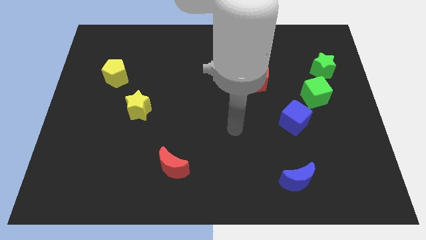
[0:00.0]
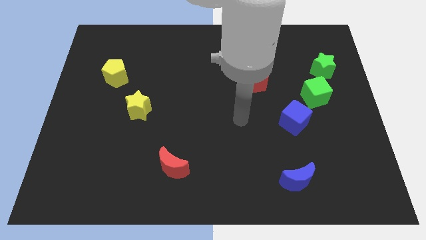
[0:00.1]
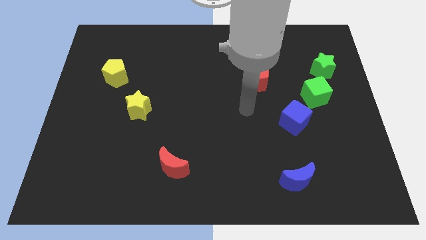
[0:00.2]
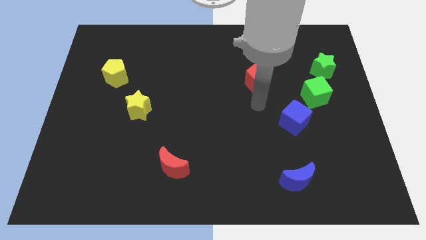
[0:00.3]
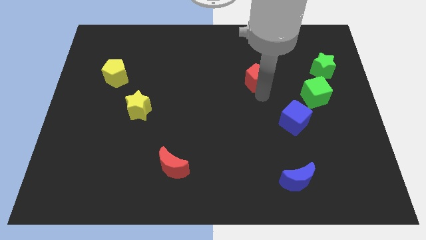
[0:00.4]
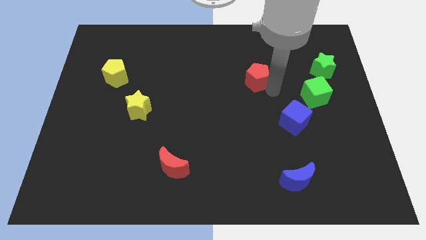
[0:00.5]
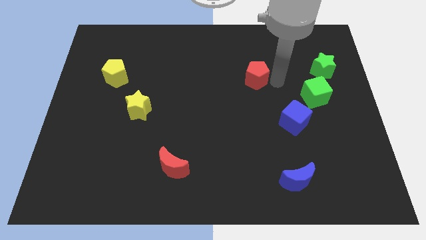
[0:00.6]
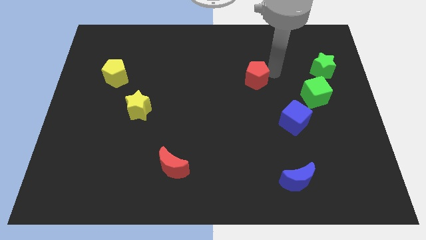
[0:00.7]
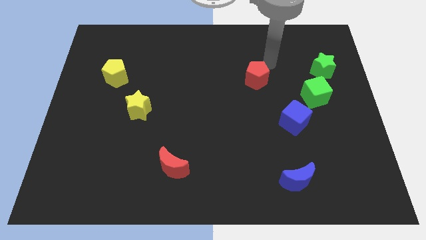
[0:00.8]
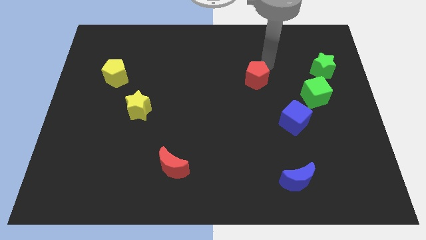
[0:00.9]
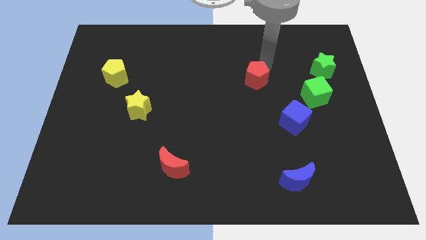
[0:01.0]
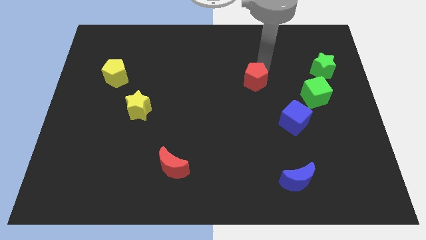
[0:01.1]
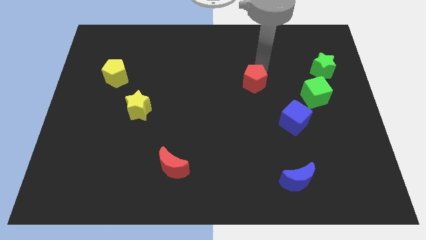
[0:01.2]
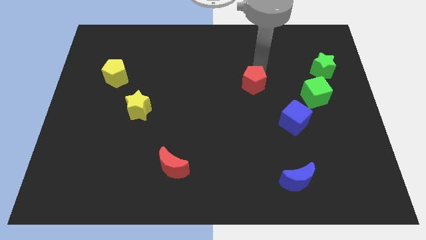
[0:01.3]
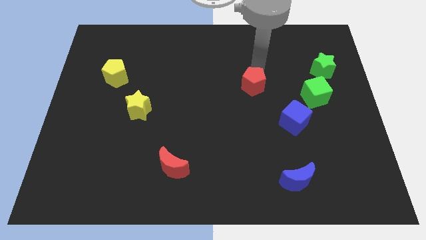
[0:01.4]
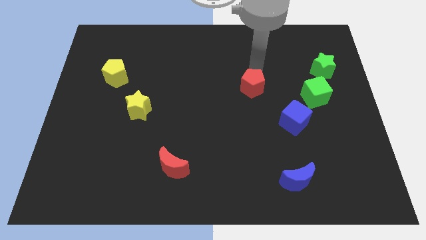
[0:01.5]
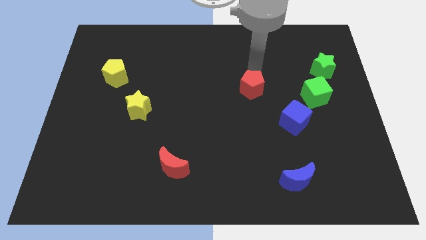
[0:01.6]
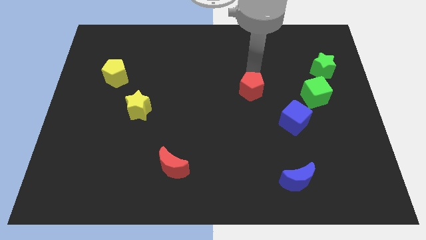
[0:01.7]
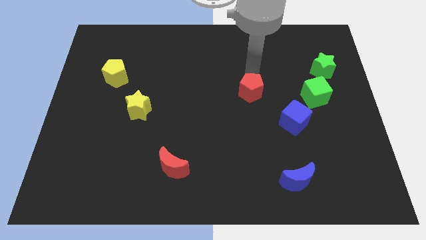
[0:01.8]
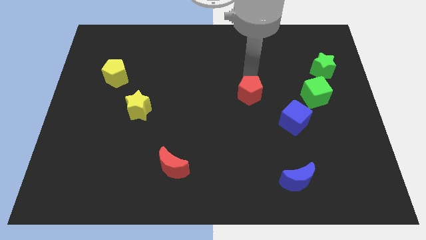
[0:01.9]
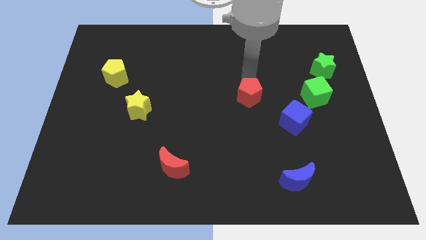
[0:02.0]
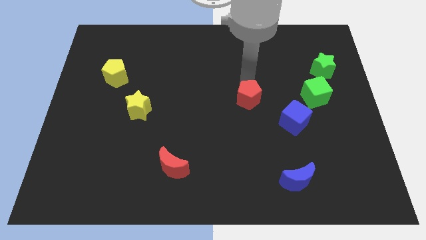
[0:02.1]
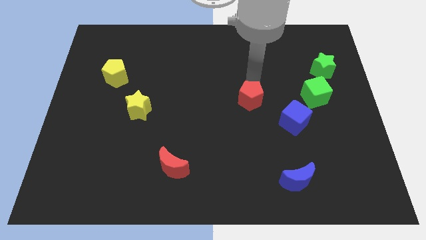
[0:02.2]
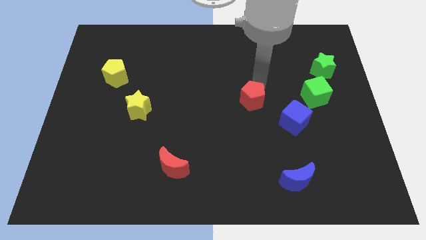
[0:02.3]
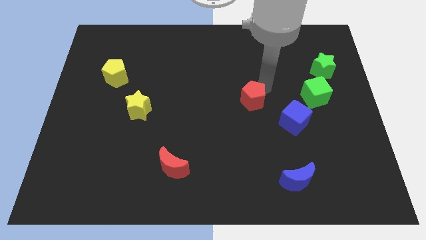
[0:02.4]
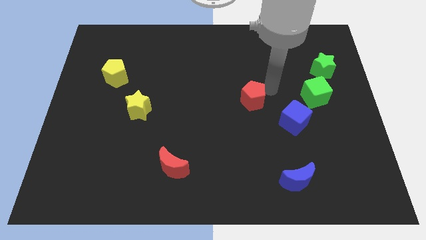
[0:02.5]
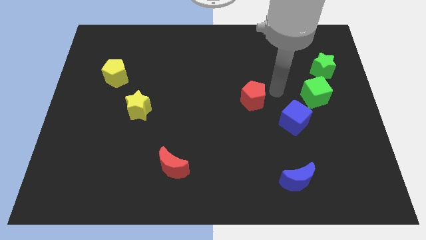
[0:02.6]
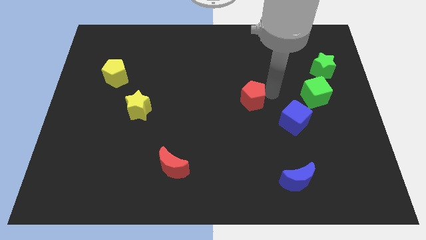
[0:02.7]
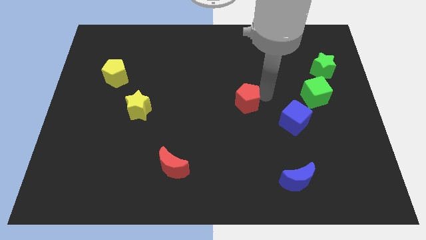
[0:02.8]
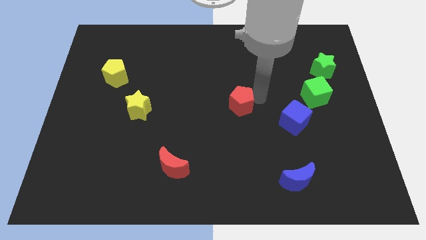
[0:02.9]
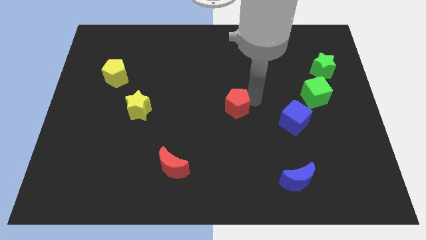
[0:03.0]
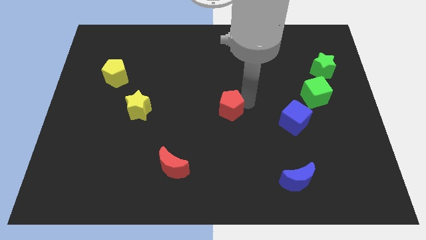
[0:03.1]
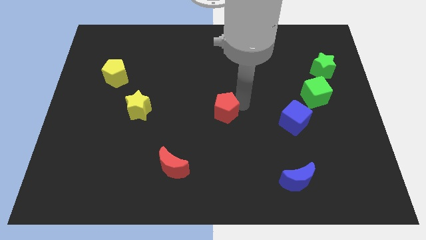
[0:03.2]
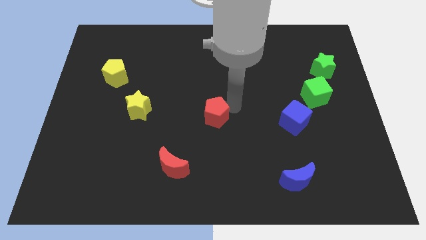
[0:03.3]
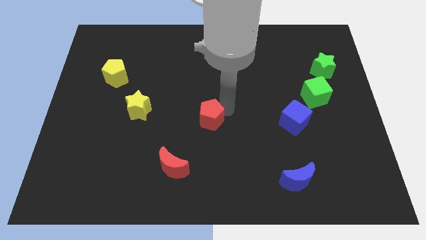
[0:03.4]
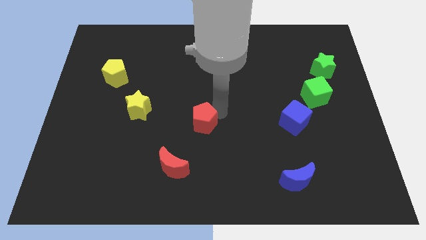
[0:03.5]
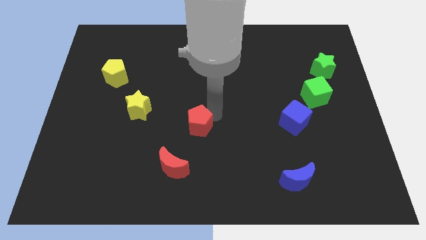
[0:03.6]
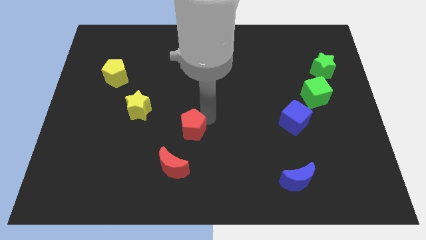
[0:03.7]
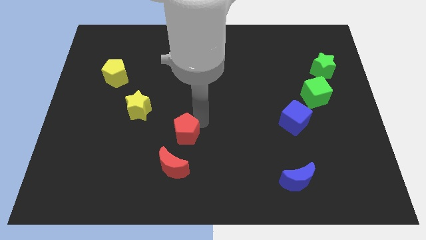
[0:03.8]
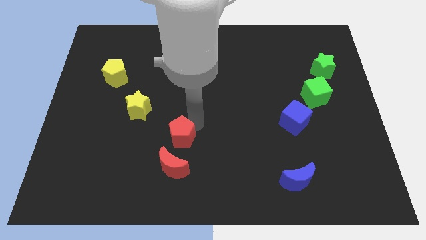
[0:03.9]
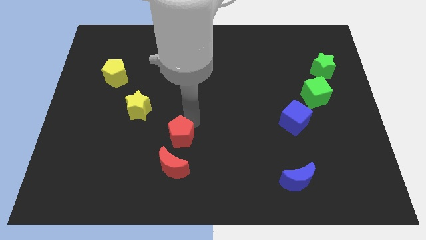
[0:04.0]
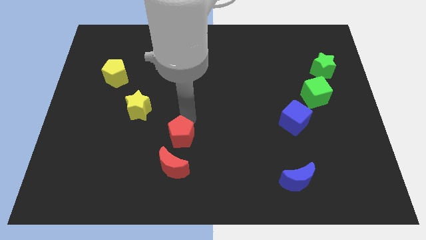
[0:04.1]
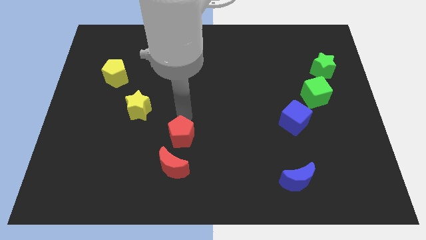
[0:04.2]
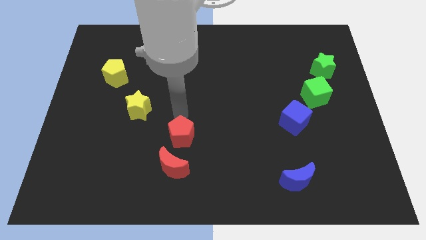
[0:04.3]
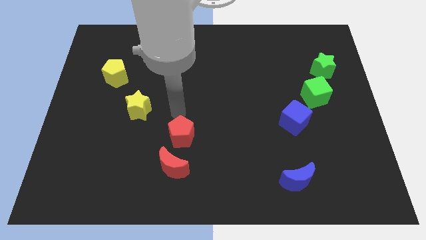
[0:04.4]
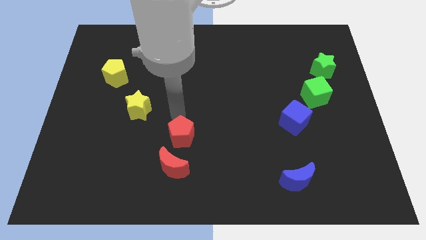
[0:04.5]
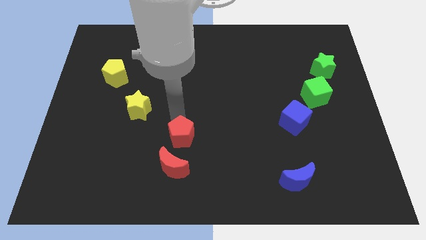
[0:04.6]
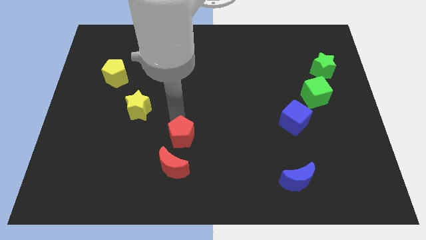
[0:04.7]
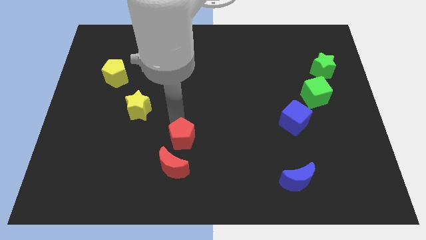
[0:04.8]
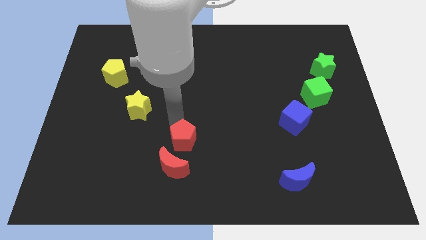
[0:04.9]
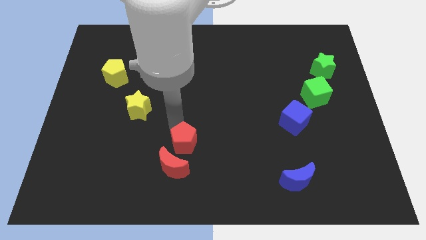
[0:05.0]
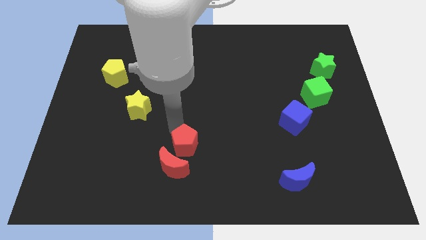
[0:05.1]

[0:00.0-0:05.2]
slide the red pentagon next to the red moon

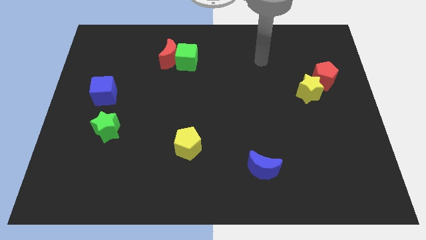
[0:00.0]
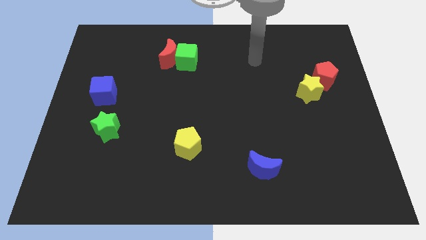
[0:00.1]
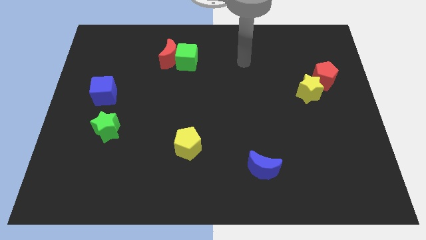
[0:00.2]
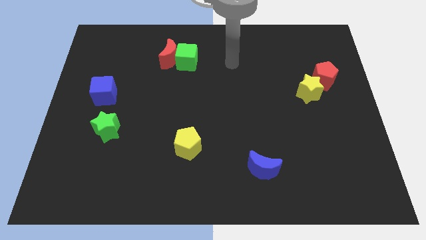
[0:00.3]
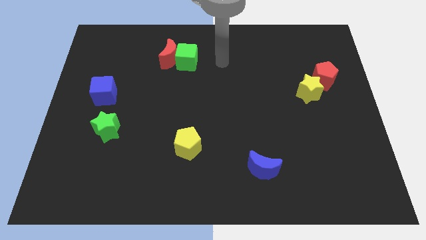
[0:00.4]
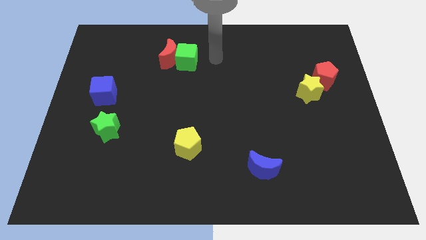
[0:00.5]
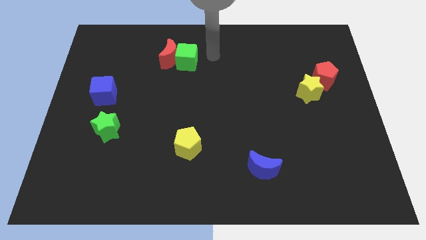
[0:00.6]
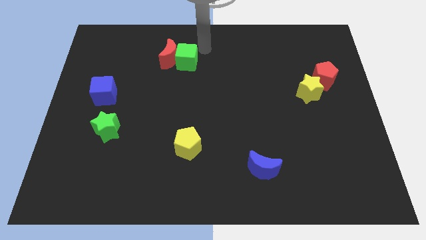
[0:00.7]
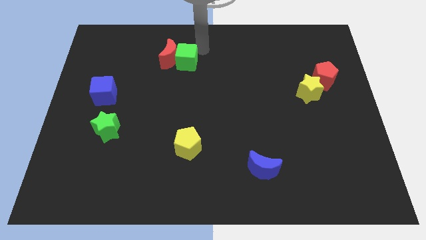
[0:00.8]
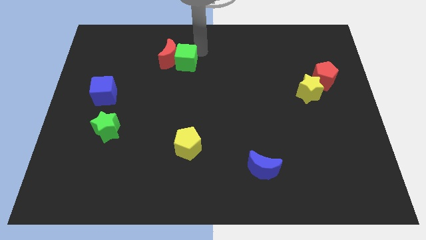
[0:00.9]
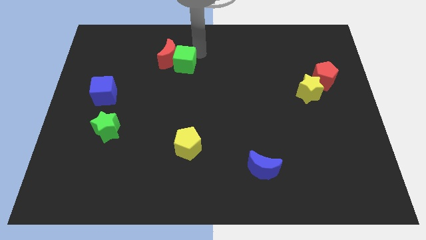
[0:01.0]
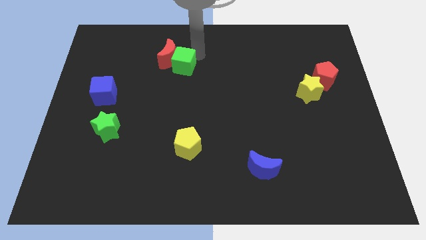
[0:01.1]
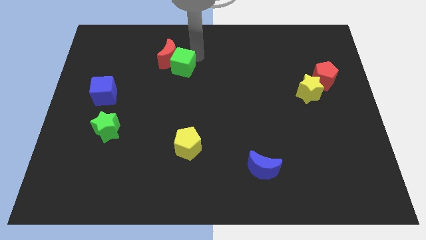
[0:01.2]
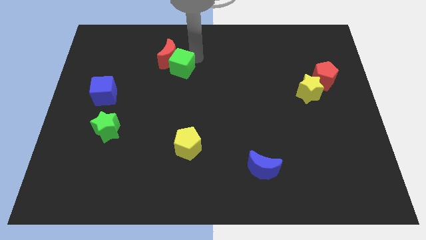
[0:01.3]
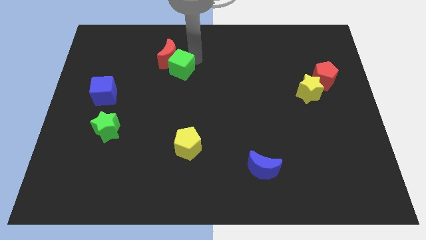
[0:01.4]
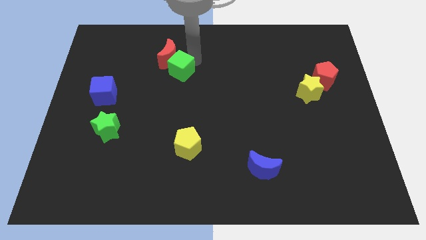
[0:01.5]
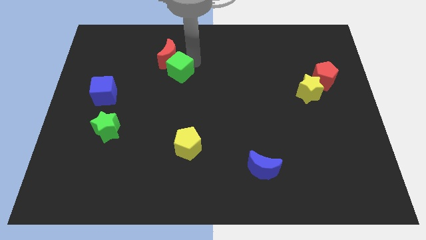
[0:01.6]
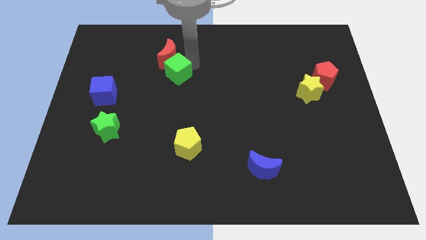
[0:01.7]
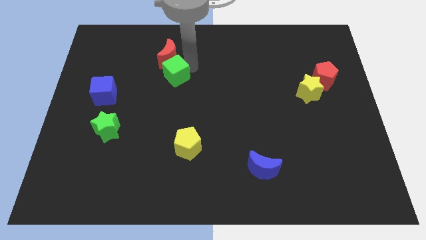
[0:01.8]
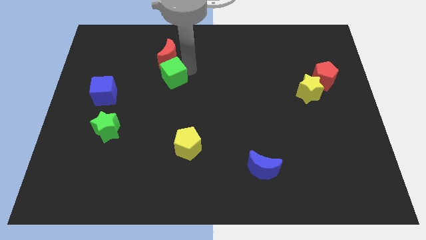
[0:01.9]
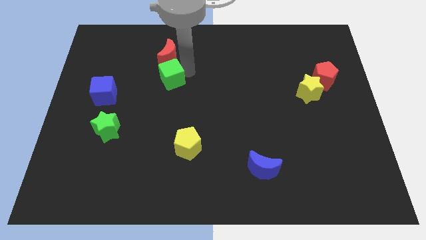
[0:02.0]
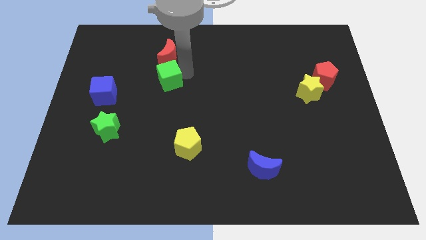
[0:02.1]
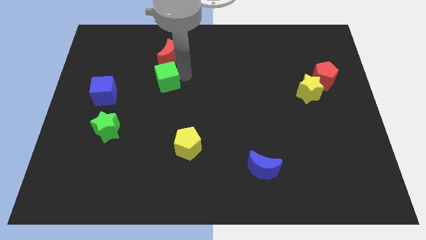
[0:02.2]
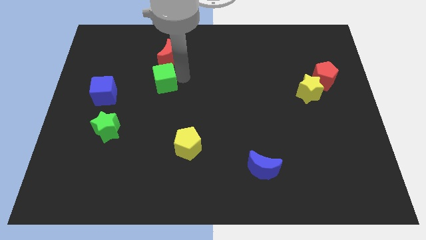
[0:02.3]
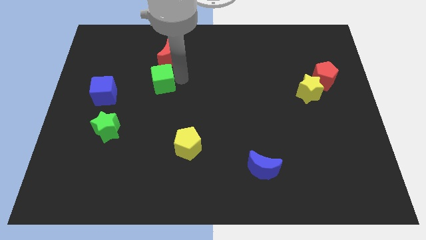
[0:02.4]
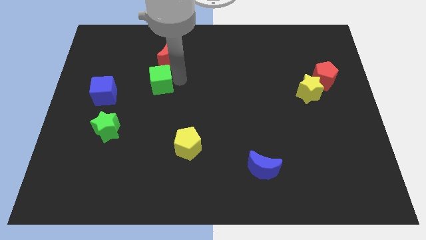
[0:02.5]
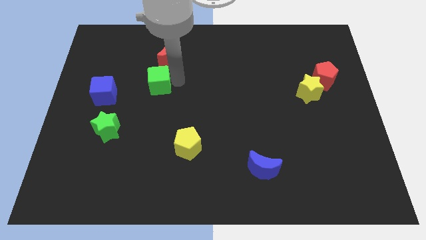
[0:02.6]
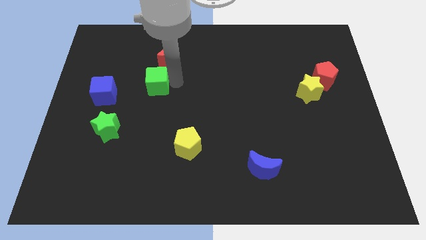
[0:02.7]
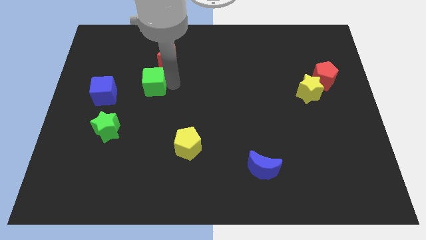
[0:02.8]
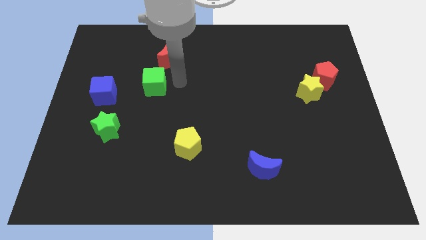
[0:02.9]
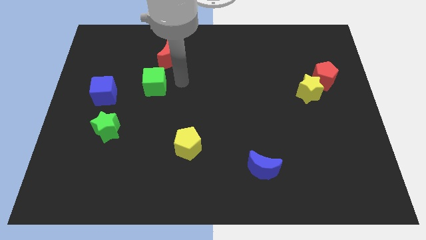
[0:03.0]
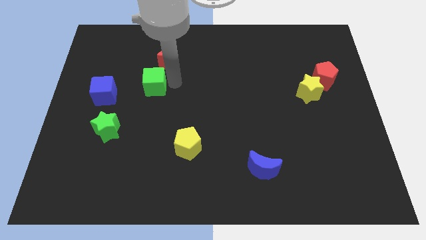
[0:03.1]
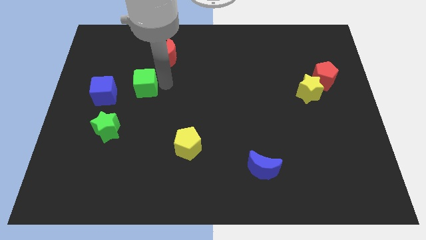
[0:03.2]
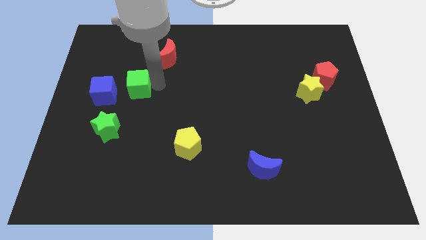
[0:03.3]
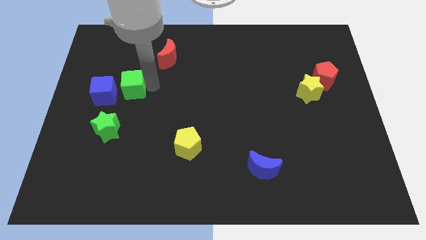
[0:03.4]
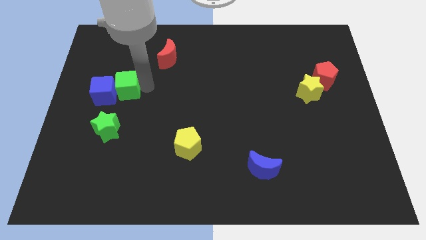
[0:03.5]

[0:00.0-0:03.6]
put the green cube to the blue cube
